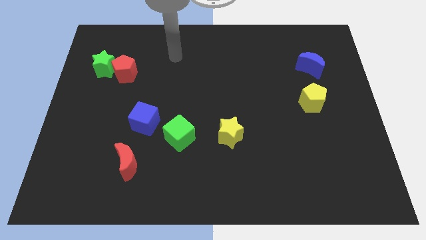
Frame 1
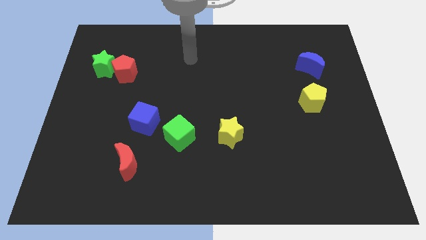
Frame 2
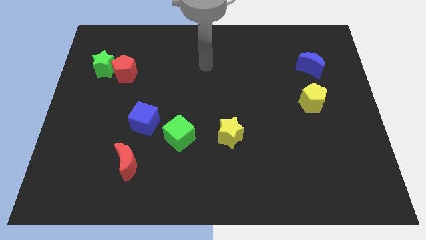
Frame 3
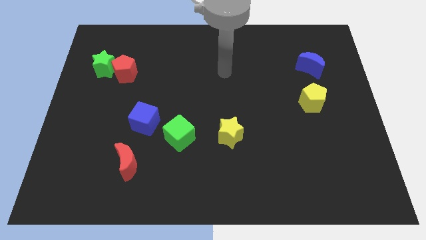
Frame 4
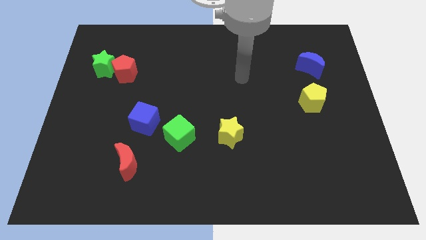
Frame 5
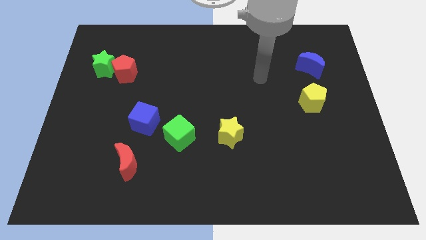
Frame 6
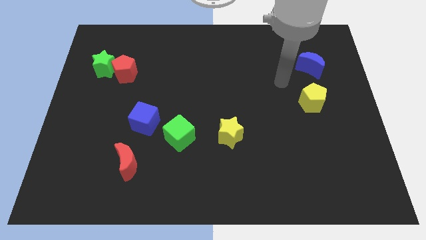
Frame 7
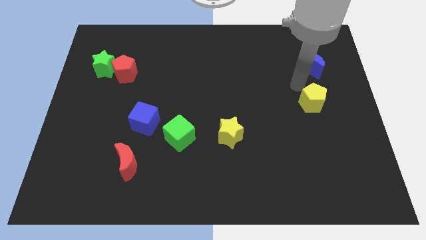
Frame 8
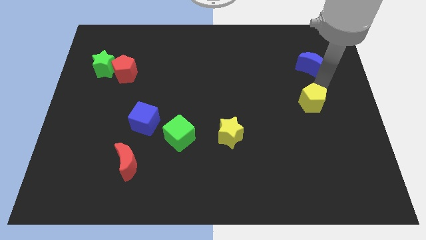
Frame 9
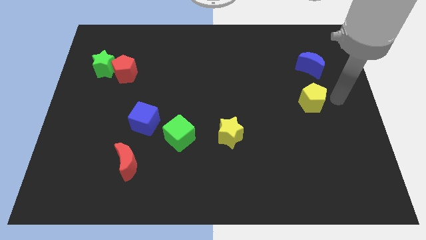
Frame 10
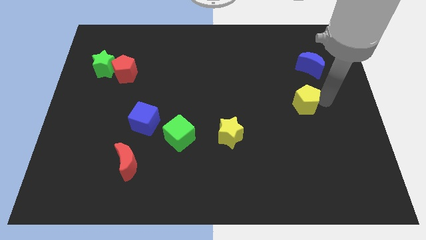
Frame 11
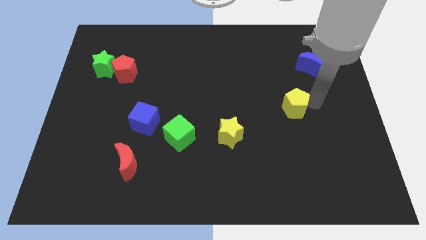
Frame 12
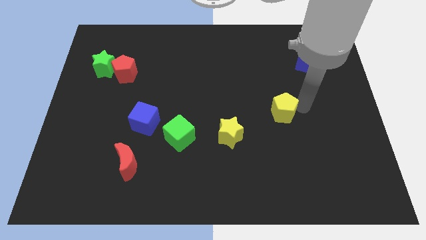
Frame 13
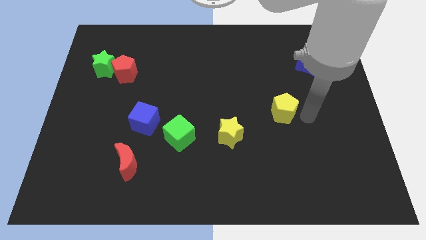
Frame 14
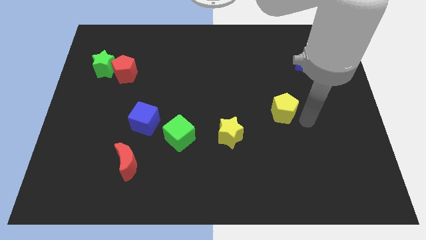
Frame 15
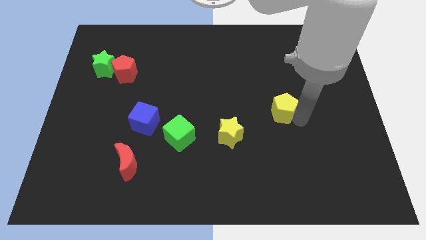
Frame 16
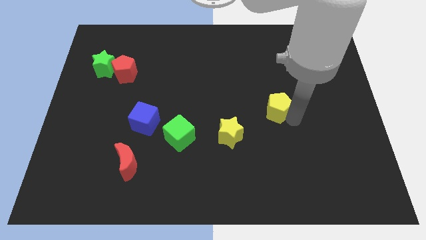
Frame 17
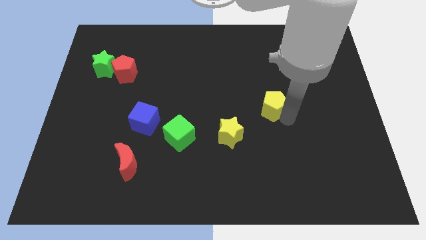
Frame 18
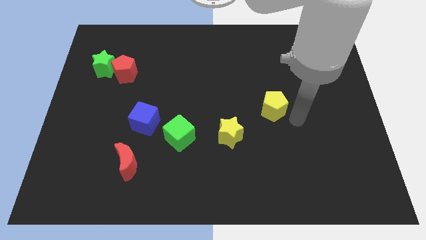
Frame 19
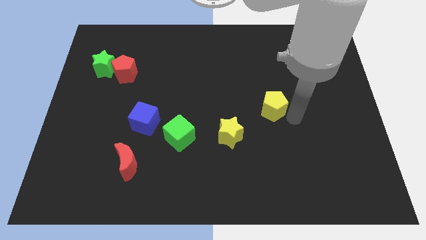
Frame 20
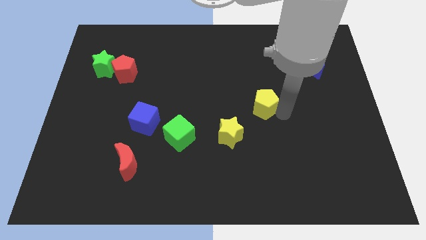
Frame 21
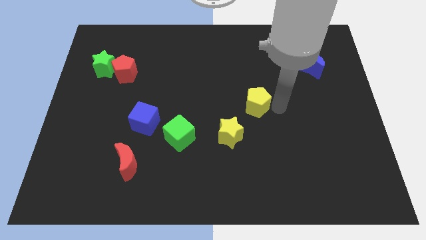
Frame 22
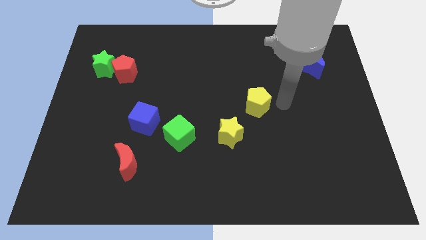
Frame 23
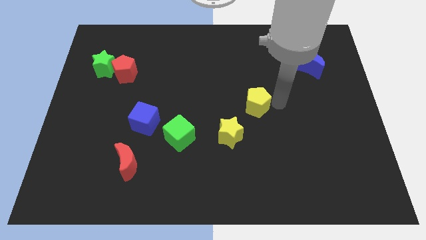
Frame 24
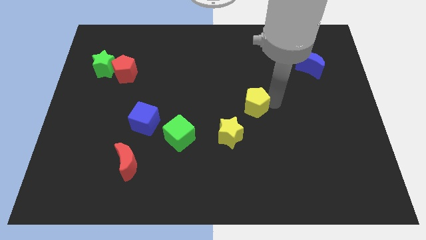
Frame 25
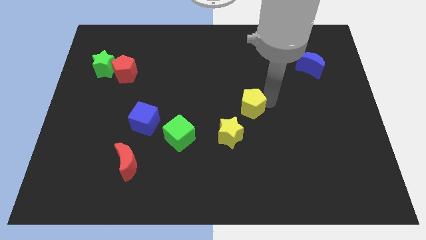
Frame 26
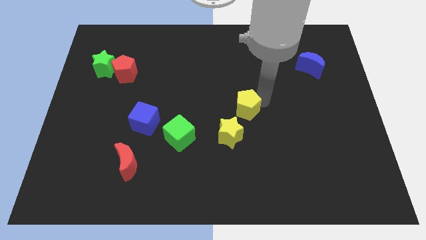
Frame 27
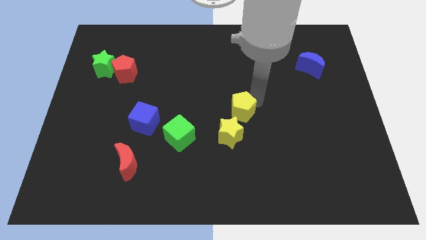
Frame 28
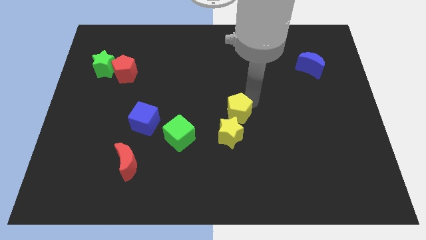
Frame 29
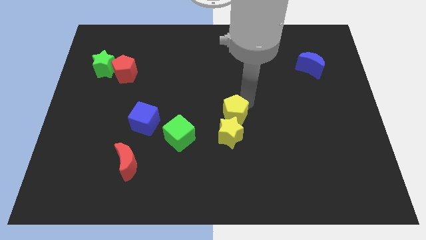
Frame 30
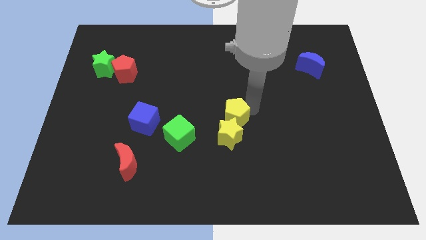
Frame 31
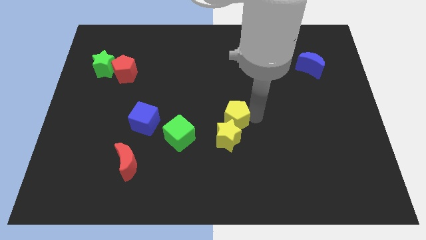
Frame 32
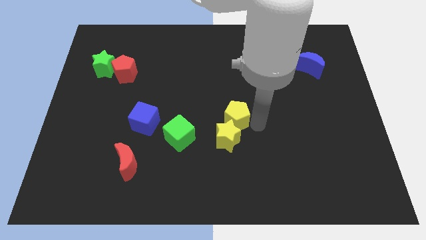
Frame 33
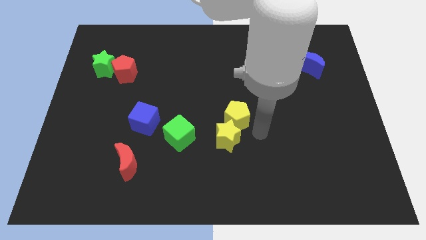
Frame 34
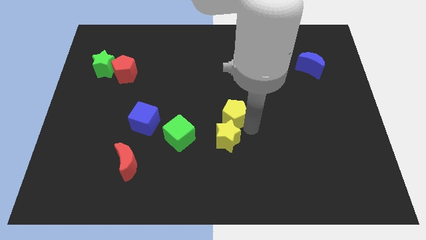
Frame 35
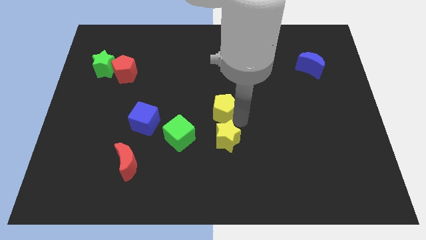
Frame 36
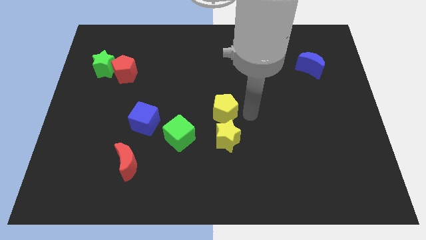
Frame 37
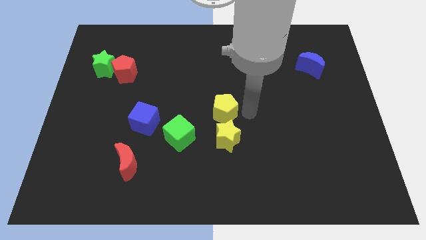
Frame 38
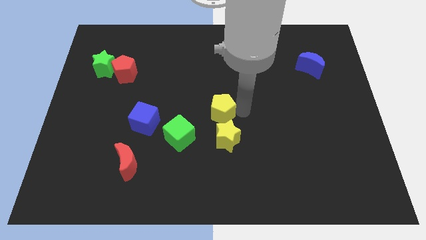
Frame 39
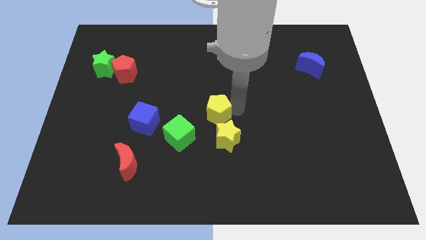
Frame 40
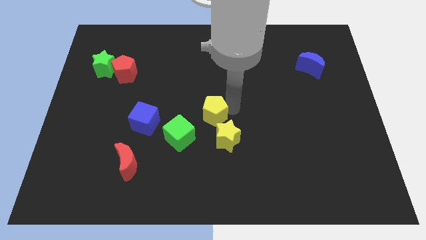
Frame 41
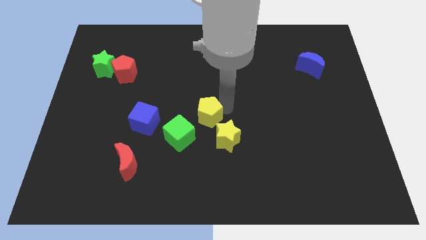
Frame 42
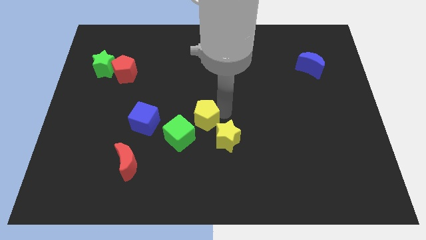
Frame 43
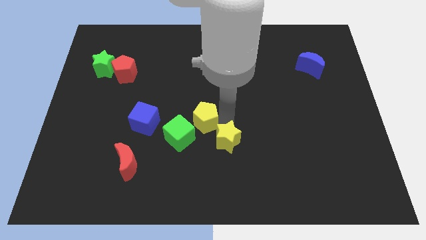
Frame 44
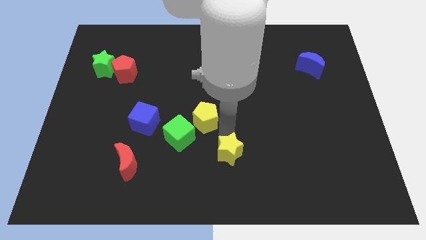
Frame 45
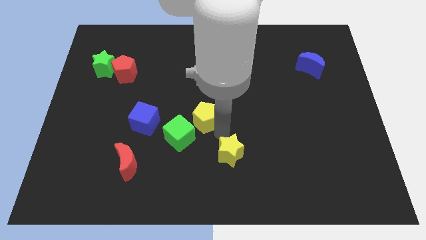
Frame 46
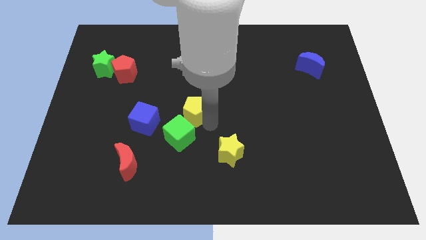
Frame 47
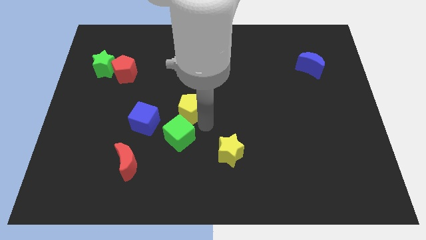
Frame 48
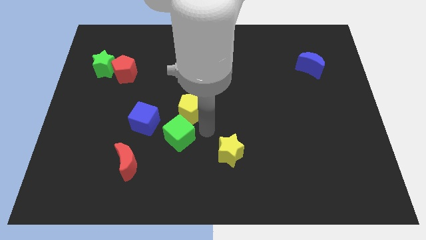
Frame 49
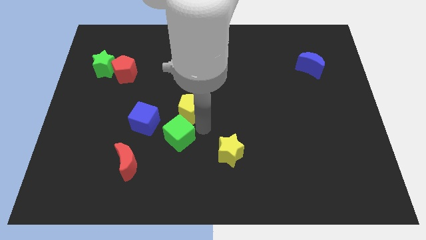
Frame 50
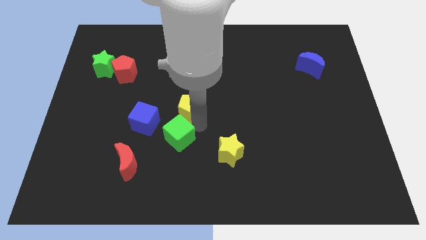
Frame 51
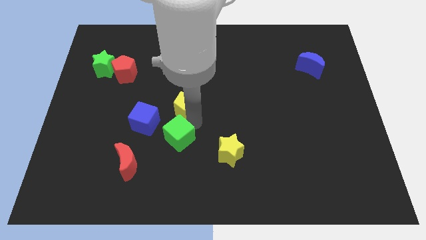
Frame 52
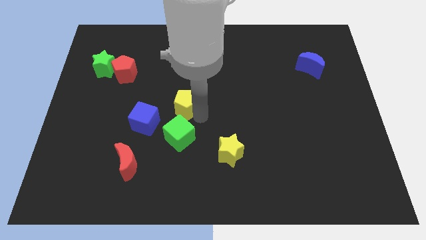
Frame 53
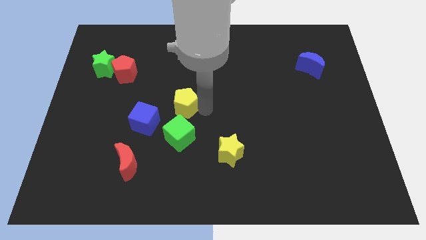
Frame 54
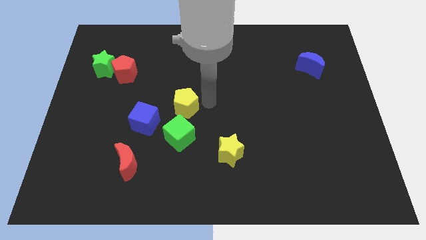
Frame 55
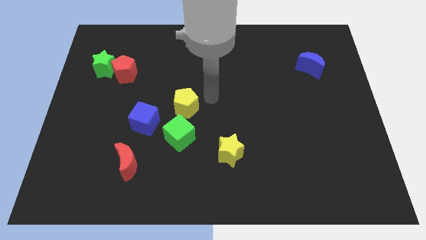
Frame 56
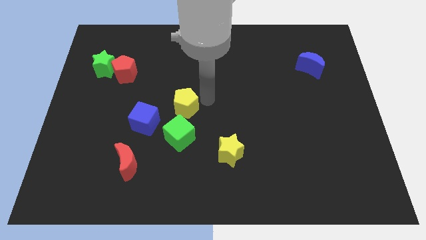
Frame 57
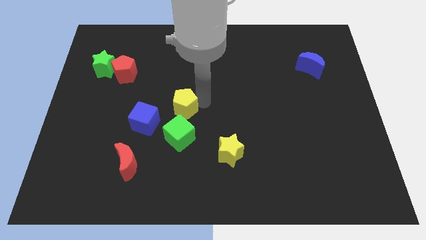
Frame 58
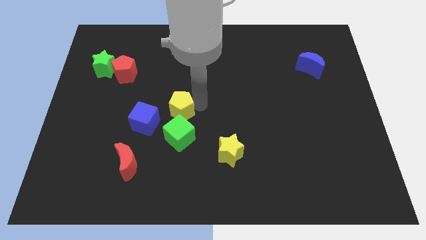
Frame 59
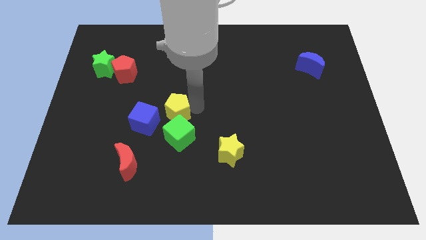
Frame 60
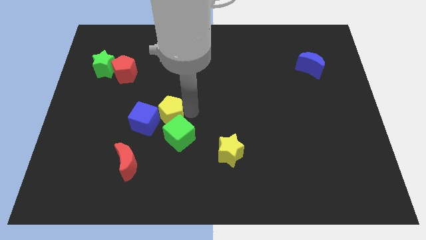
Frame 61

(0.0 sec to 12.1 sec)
put the yellow pentagon close to the blue cube

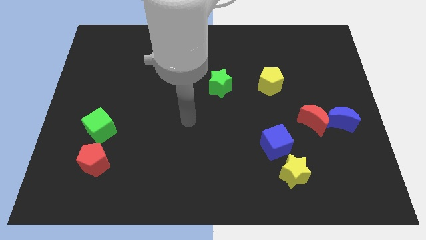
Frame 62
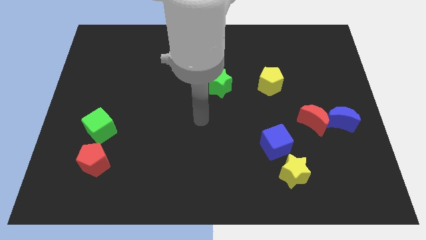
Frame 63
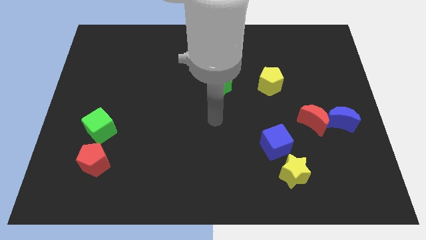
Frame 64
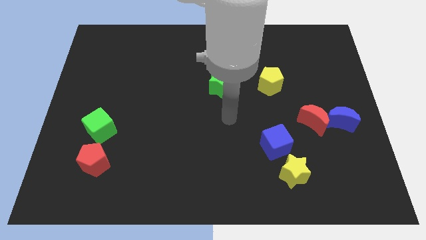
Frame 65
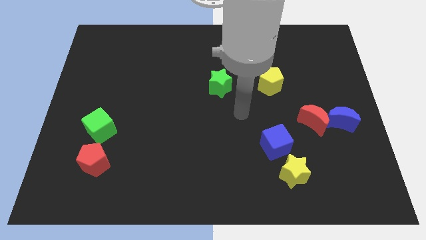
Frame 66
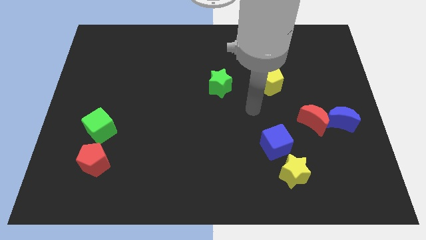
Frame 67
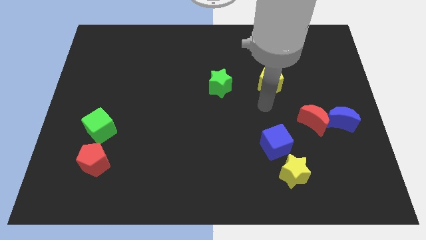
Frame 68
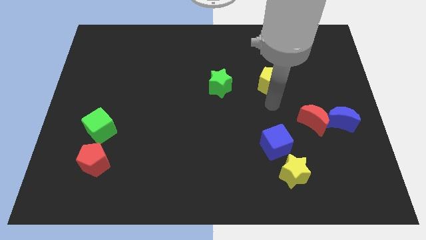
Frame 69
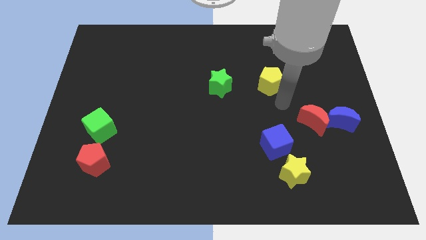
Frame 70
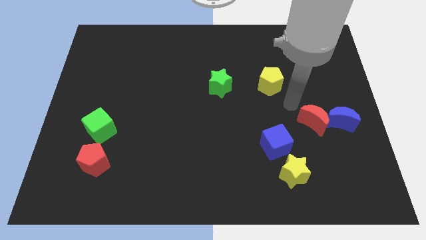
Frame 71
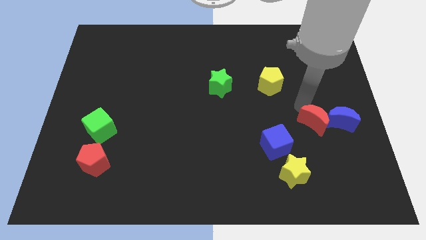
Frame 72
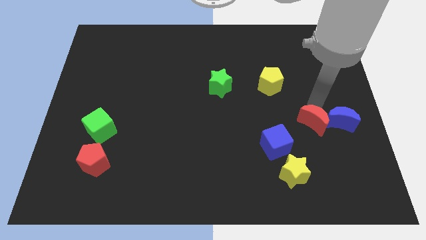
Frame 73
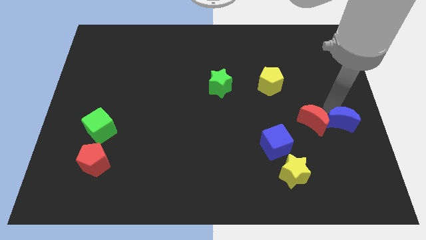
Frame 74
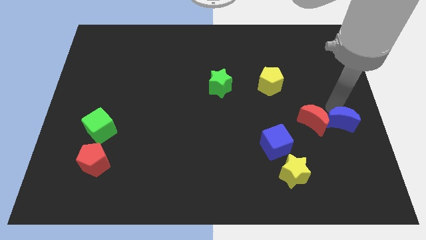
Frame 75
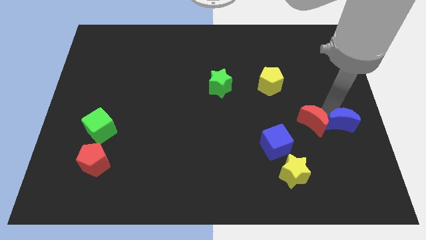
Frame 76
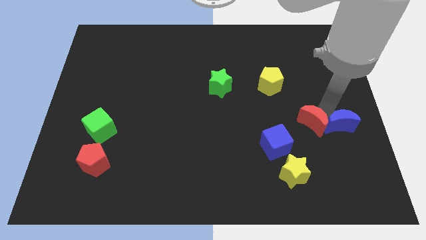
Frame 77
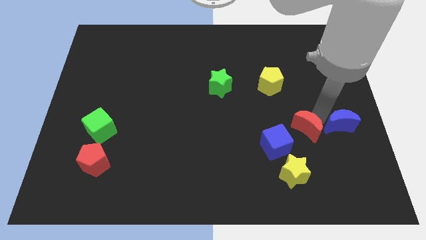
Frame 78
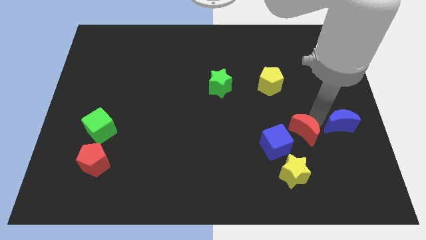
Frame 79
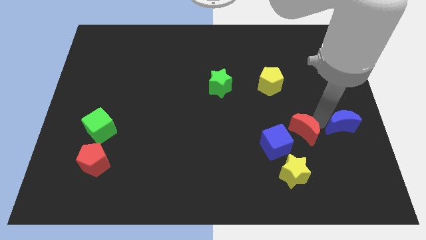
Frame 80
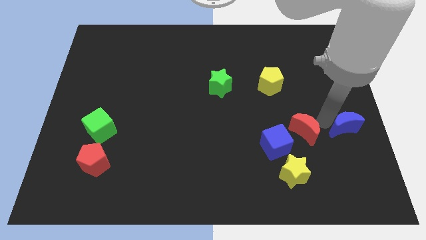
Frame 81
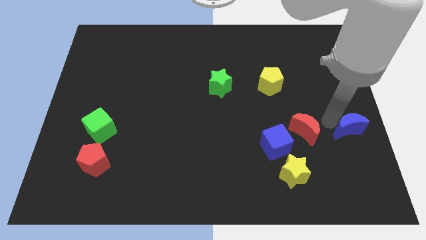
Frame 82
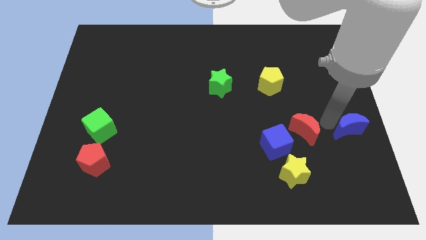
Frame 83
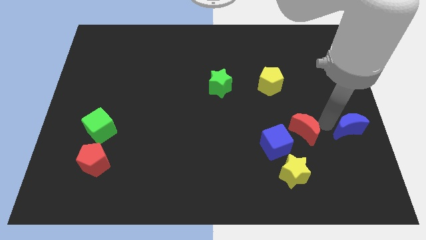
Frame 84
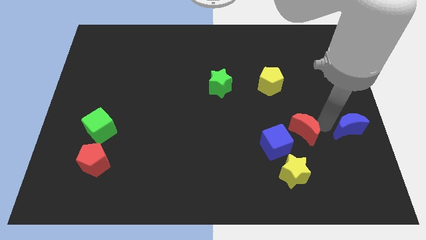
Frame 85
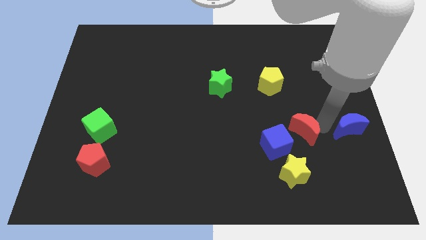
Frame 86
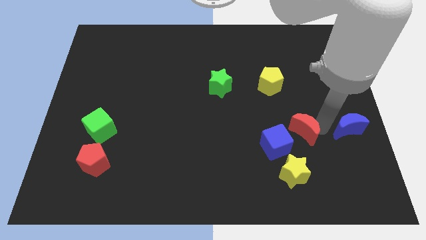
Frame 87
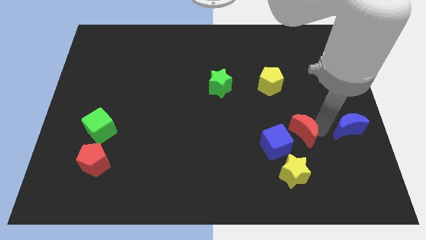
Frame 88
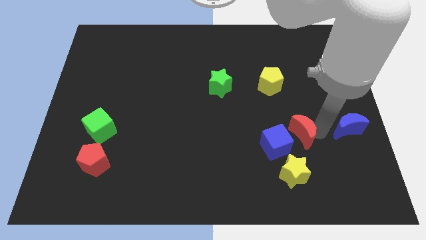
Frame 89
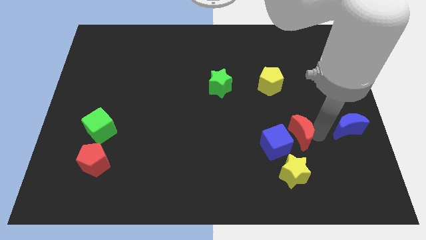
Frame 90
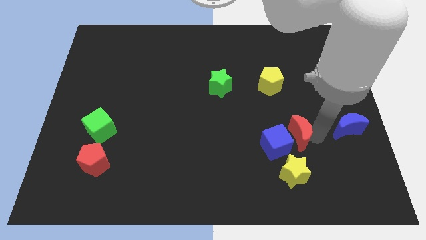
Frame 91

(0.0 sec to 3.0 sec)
push the red moon close to the blue cube
